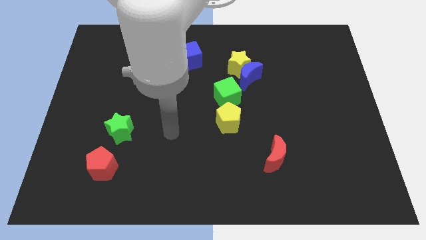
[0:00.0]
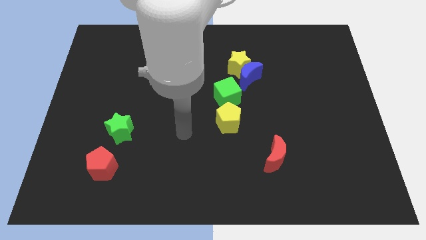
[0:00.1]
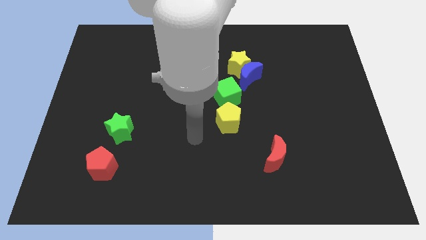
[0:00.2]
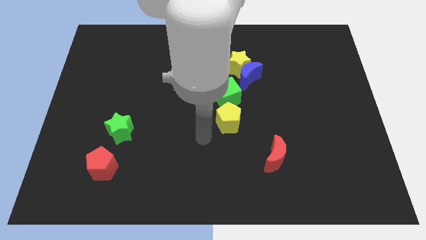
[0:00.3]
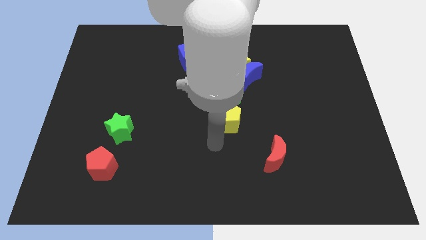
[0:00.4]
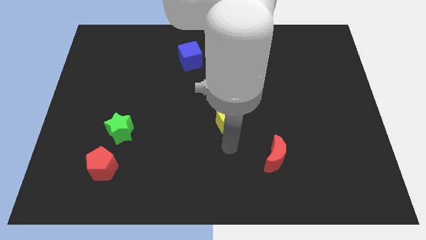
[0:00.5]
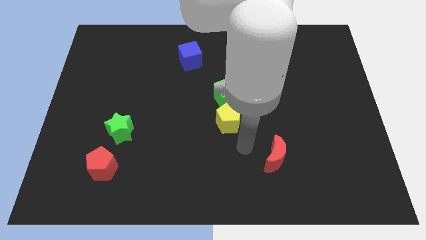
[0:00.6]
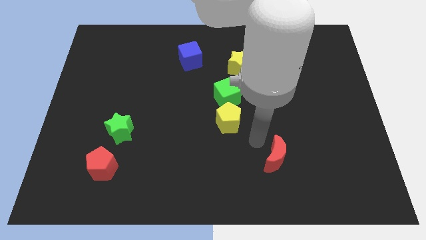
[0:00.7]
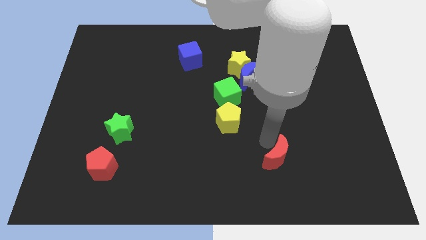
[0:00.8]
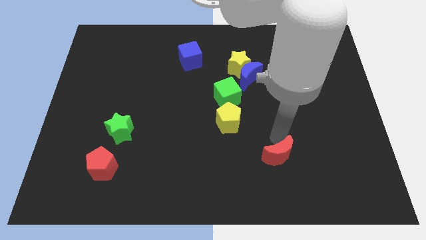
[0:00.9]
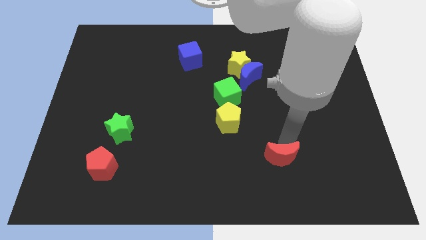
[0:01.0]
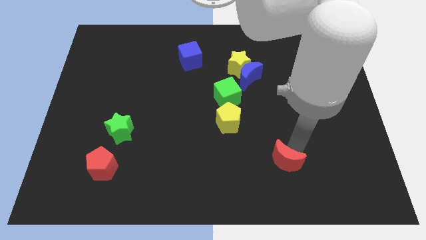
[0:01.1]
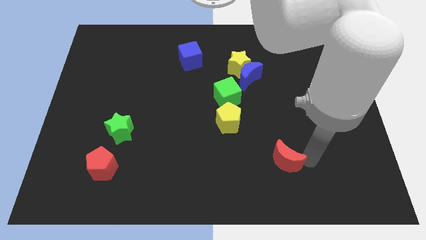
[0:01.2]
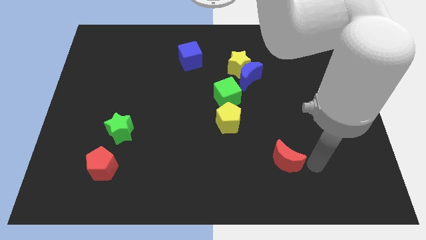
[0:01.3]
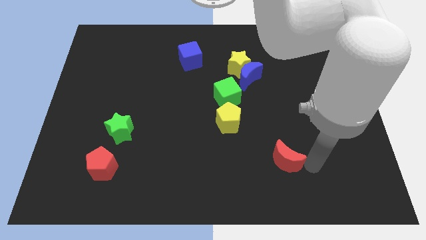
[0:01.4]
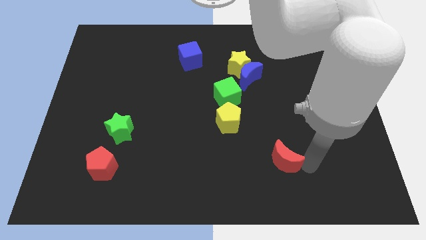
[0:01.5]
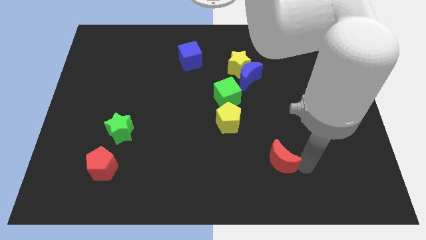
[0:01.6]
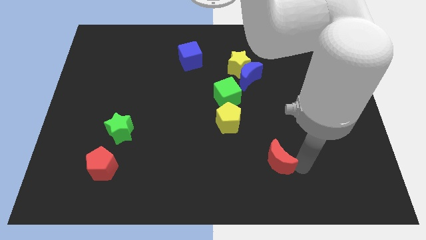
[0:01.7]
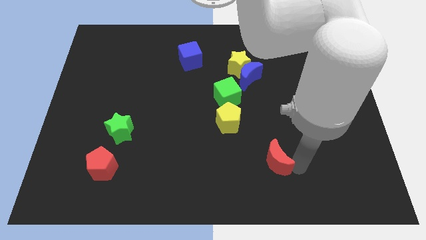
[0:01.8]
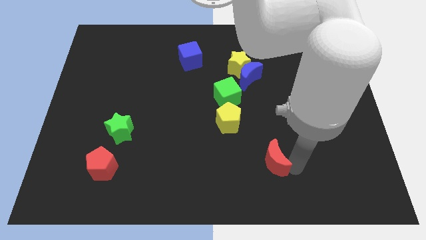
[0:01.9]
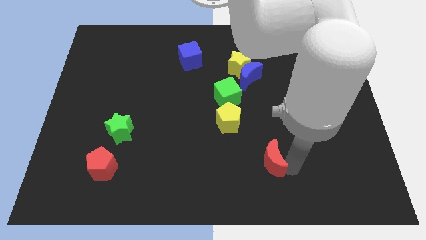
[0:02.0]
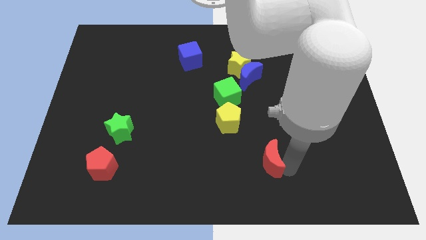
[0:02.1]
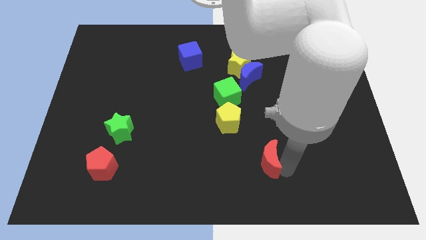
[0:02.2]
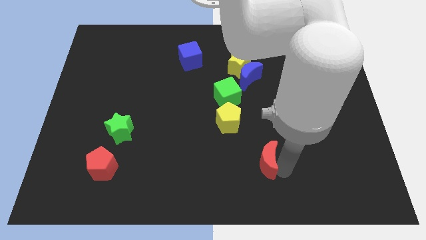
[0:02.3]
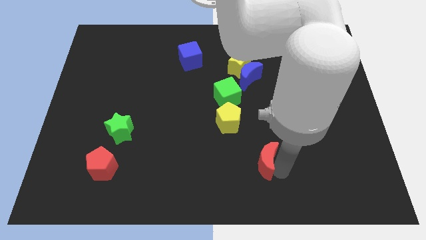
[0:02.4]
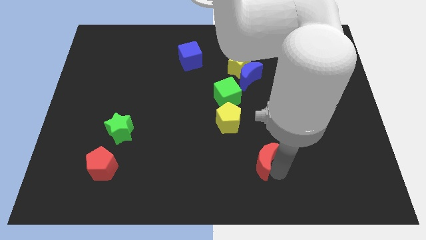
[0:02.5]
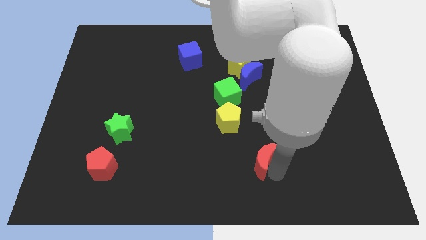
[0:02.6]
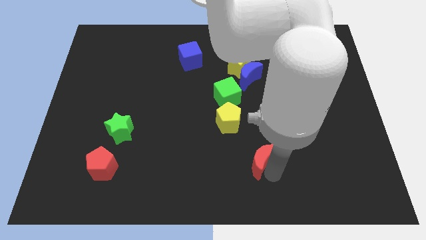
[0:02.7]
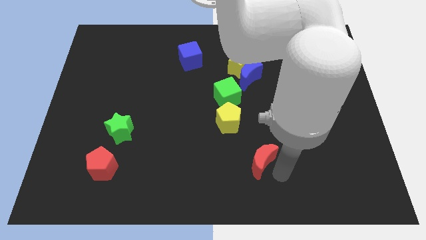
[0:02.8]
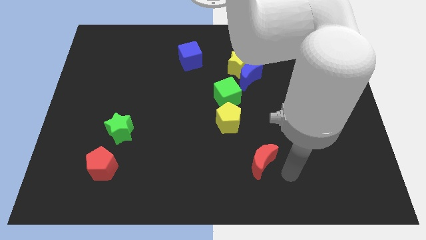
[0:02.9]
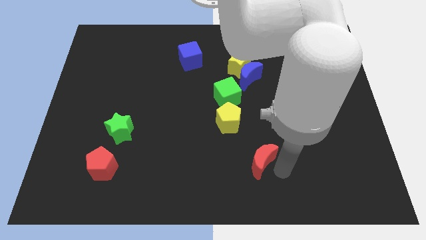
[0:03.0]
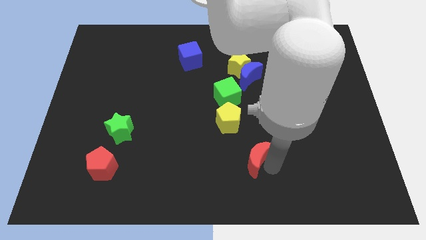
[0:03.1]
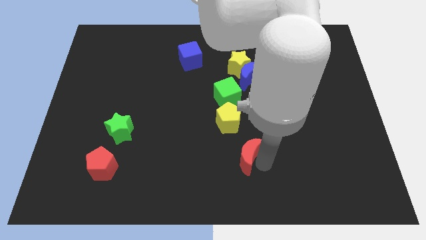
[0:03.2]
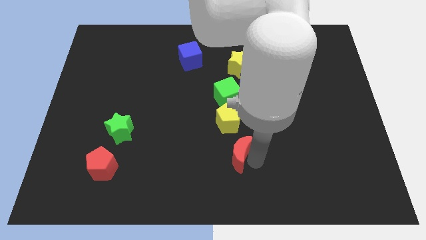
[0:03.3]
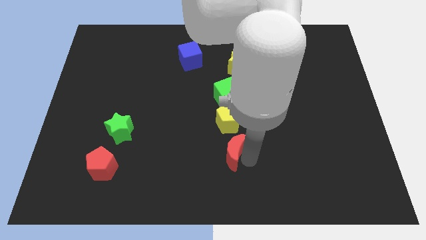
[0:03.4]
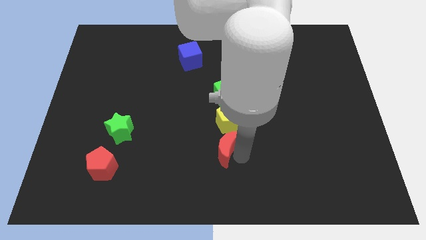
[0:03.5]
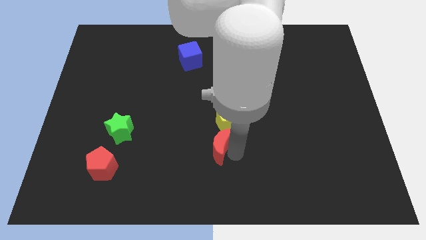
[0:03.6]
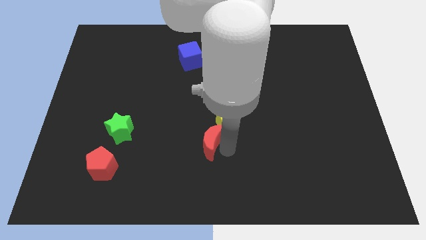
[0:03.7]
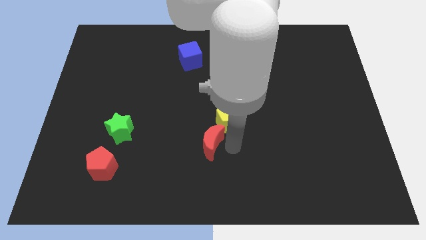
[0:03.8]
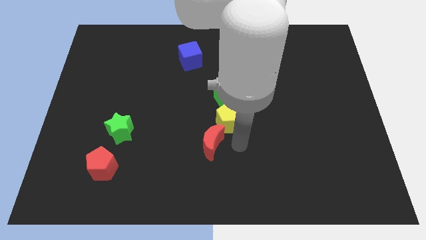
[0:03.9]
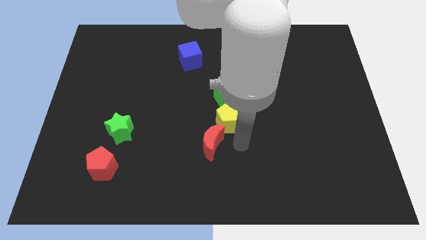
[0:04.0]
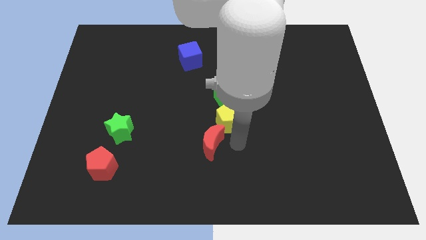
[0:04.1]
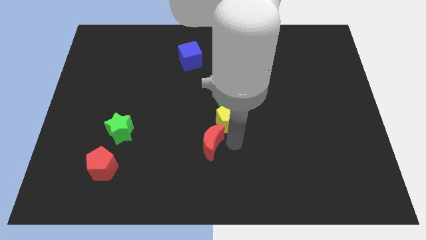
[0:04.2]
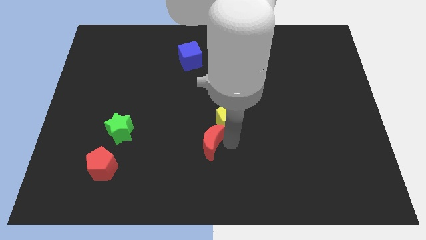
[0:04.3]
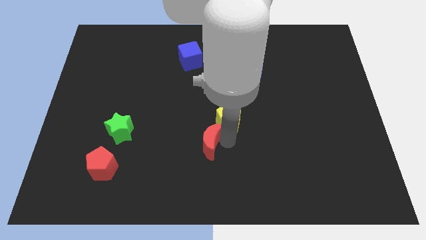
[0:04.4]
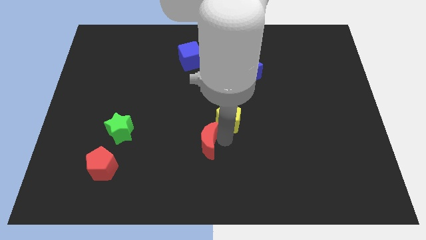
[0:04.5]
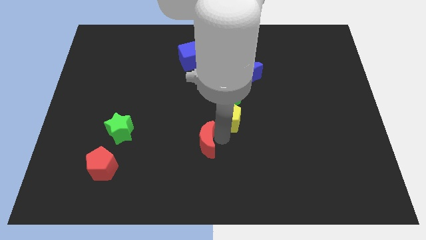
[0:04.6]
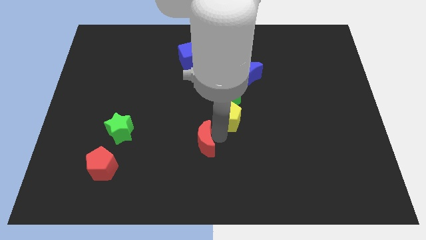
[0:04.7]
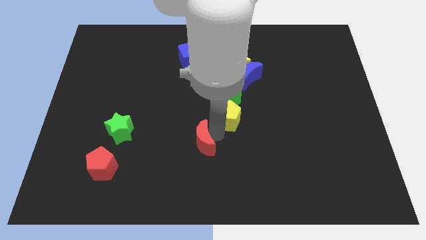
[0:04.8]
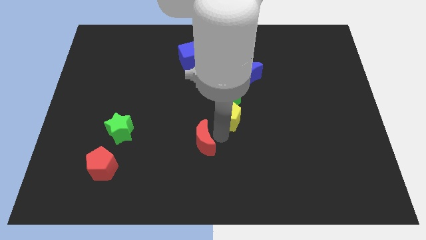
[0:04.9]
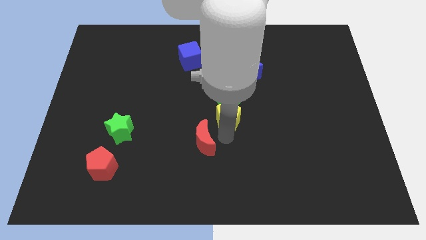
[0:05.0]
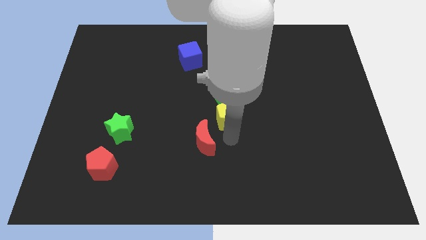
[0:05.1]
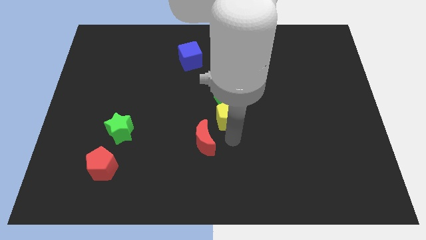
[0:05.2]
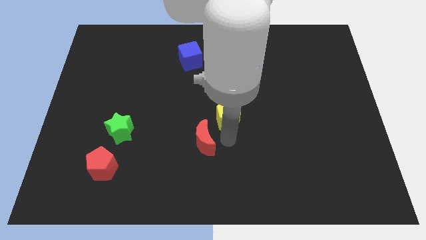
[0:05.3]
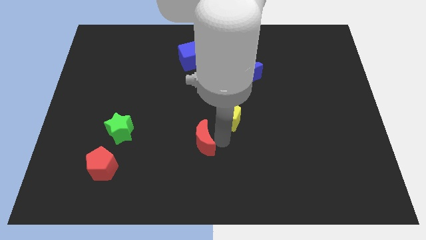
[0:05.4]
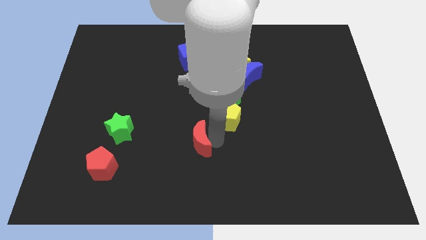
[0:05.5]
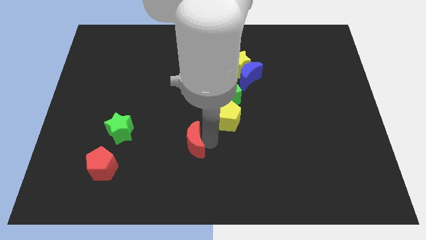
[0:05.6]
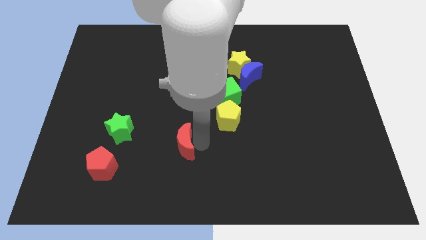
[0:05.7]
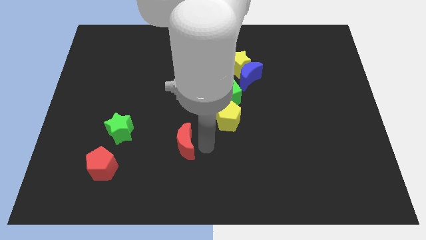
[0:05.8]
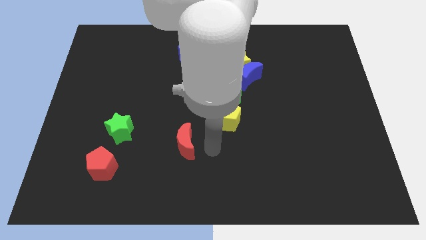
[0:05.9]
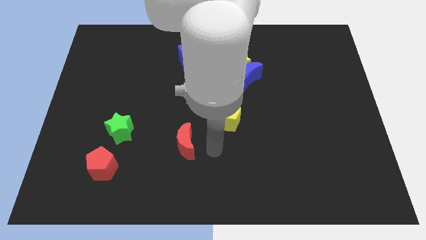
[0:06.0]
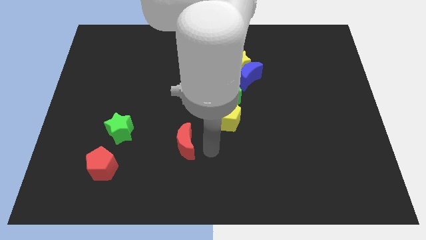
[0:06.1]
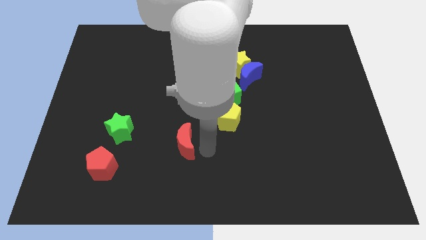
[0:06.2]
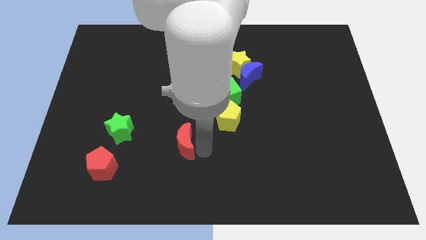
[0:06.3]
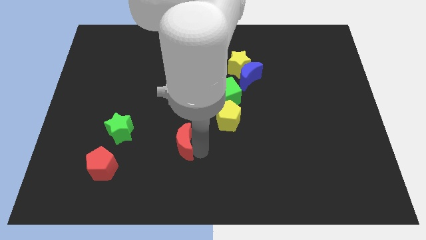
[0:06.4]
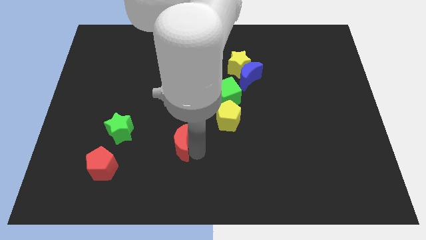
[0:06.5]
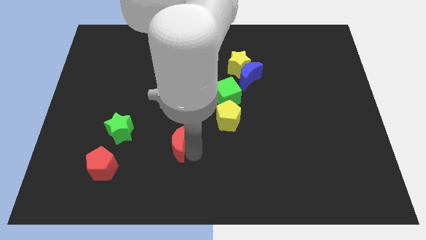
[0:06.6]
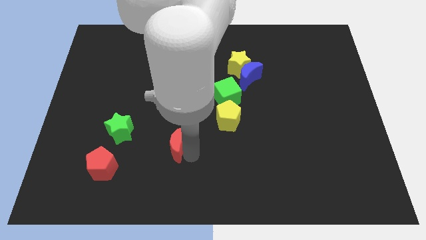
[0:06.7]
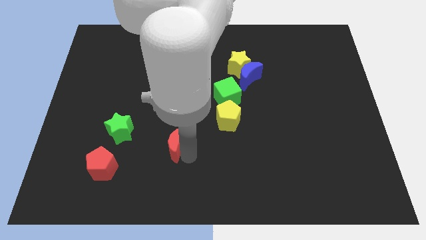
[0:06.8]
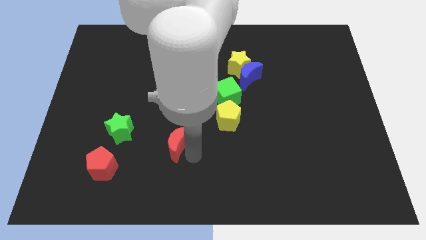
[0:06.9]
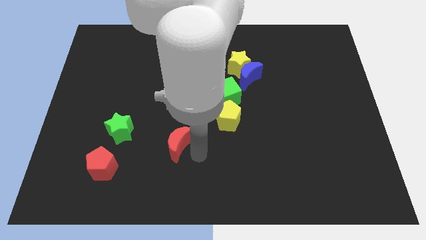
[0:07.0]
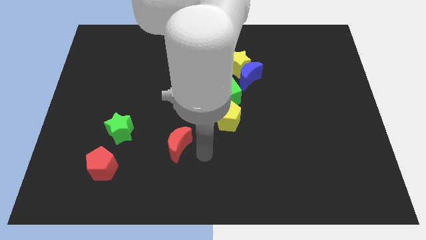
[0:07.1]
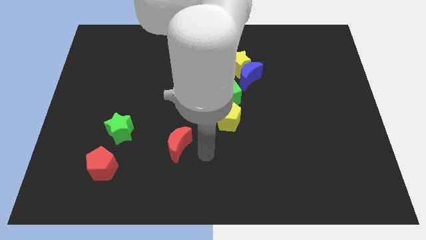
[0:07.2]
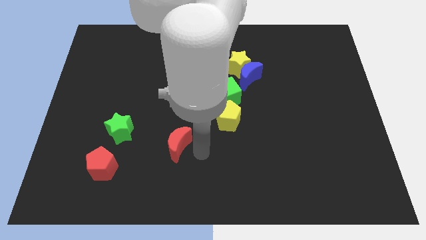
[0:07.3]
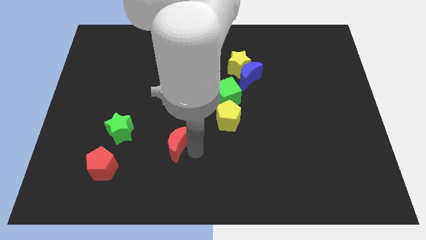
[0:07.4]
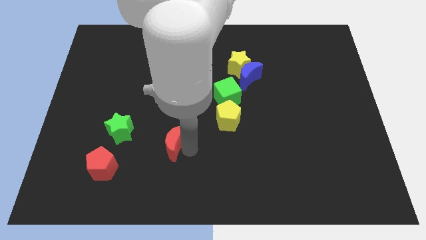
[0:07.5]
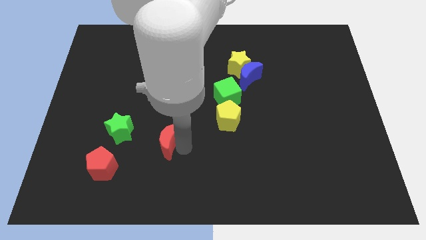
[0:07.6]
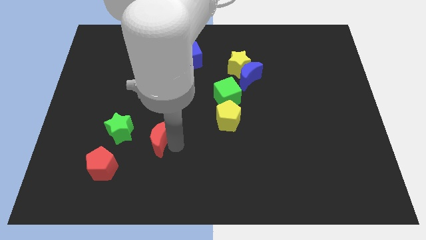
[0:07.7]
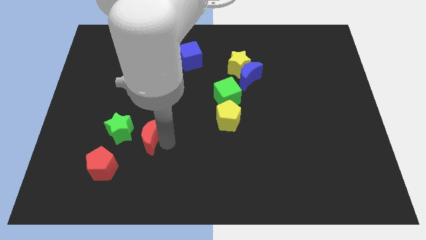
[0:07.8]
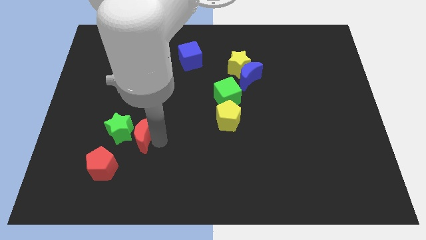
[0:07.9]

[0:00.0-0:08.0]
slide the red moon to the green star
